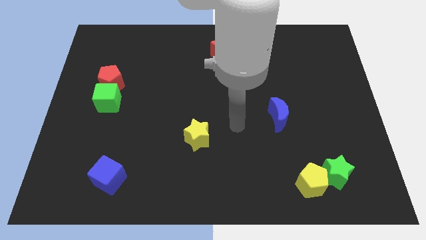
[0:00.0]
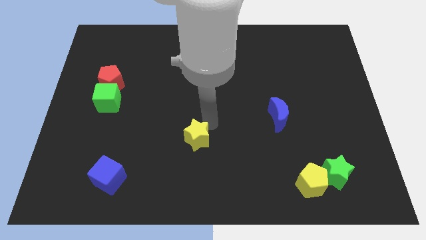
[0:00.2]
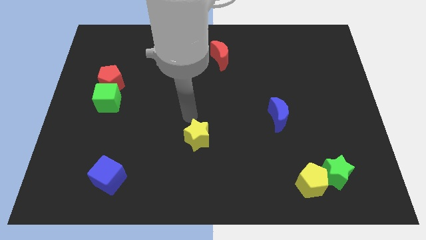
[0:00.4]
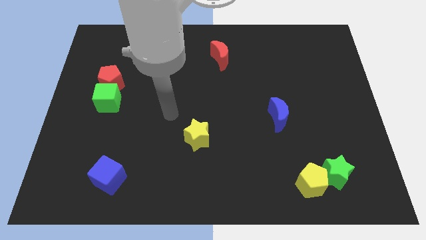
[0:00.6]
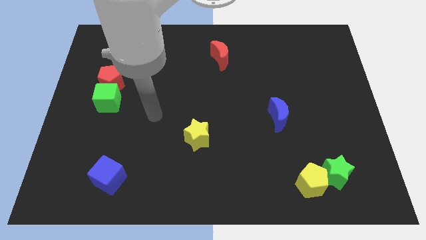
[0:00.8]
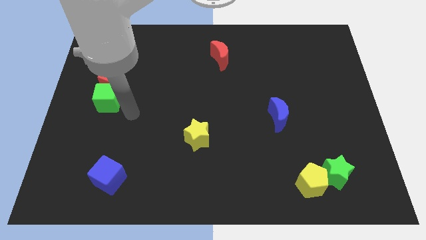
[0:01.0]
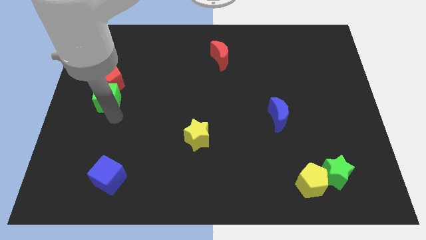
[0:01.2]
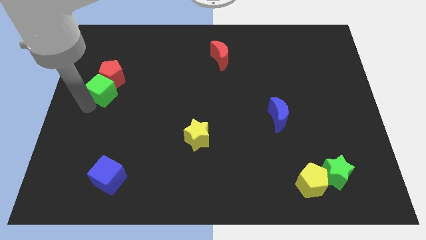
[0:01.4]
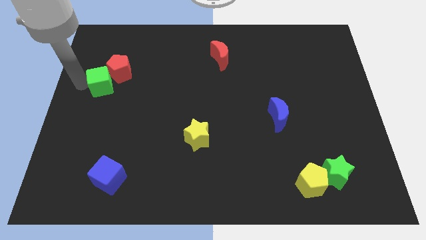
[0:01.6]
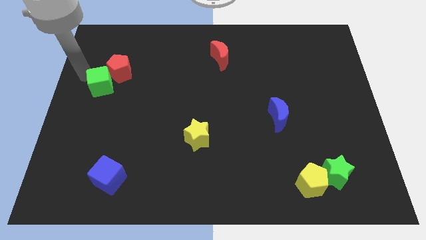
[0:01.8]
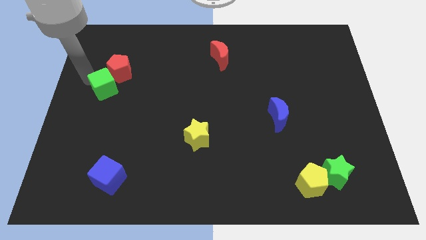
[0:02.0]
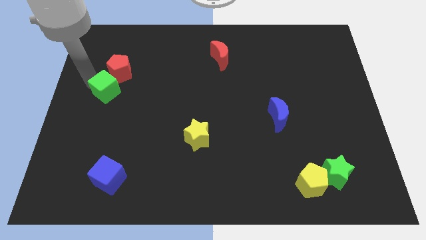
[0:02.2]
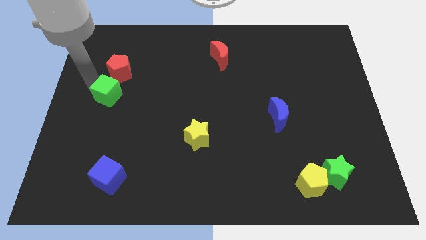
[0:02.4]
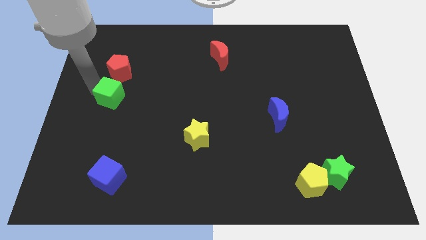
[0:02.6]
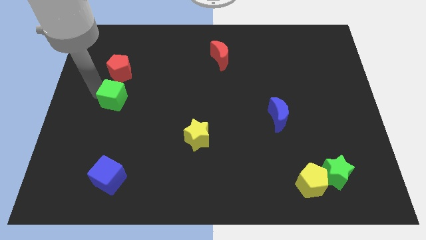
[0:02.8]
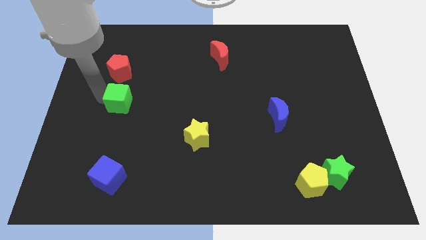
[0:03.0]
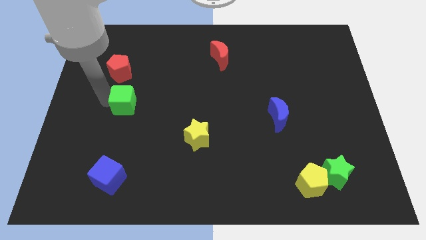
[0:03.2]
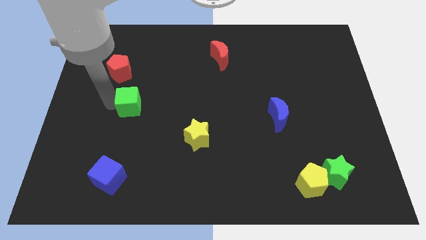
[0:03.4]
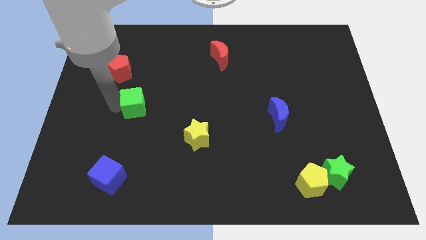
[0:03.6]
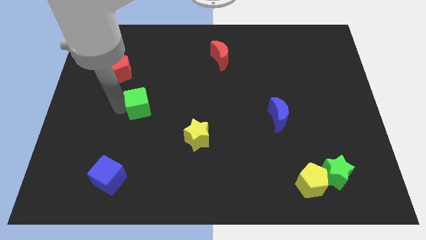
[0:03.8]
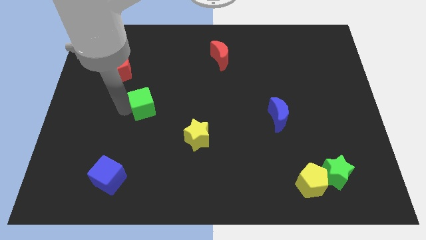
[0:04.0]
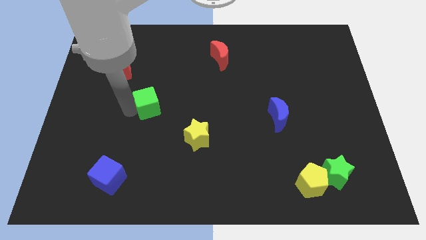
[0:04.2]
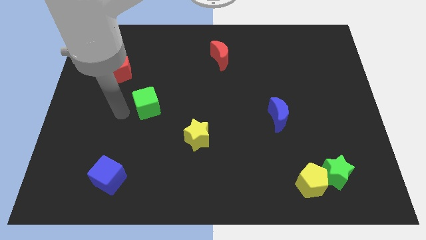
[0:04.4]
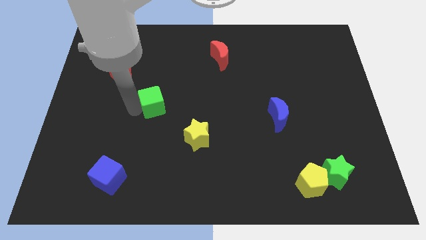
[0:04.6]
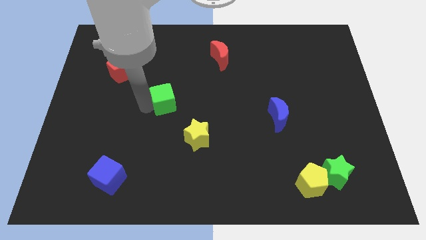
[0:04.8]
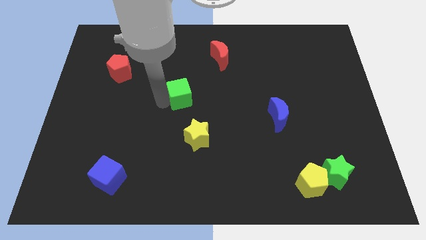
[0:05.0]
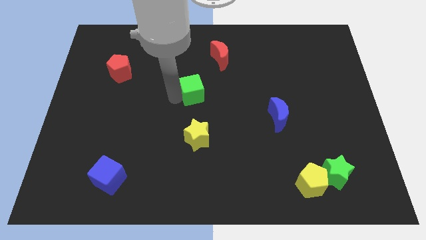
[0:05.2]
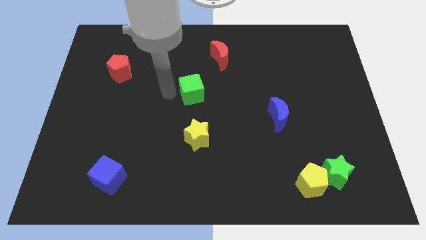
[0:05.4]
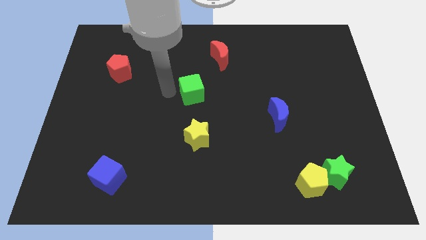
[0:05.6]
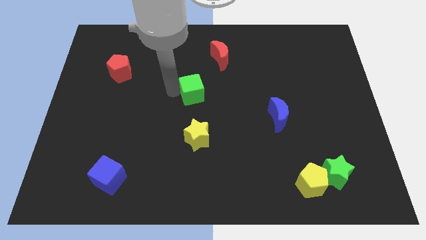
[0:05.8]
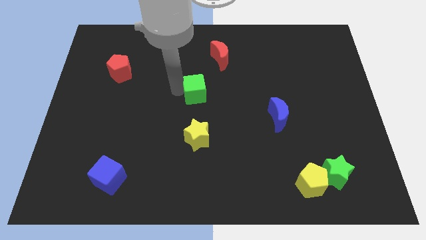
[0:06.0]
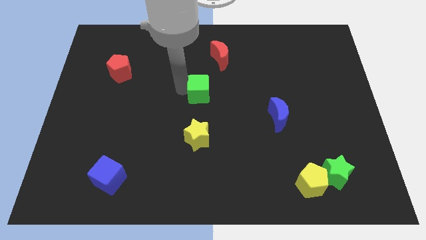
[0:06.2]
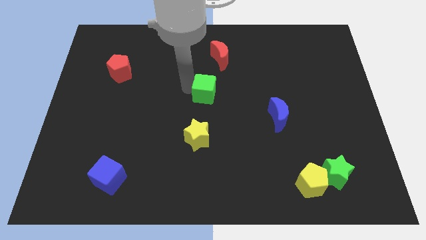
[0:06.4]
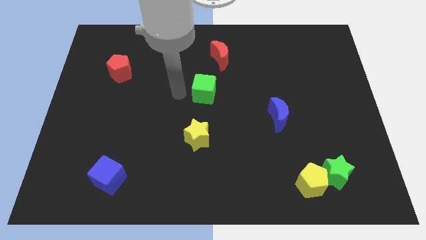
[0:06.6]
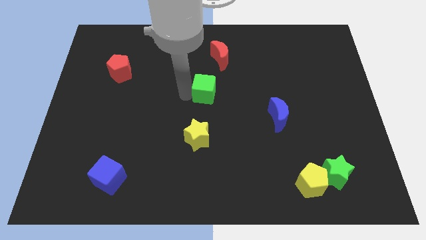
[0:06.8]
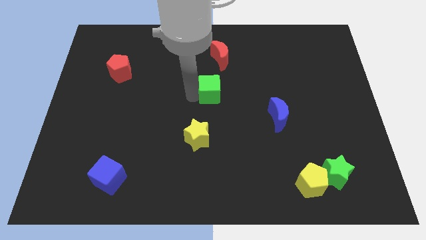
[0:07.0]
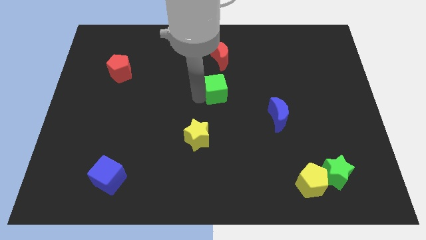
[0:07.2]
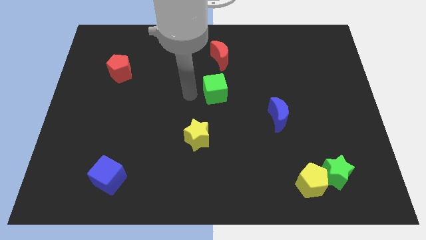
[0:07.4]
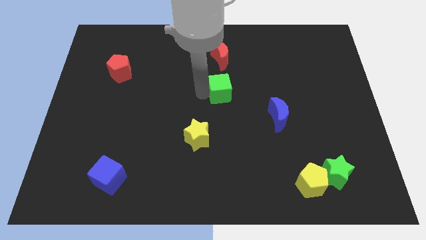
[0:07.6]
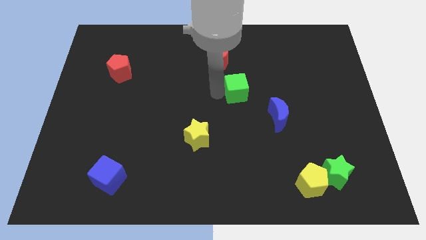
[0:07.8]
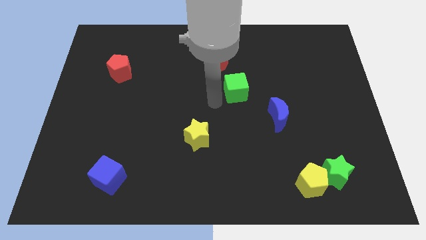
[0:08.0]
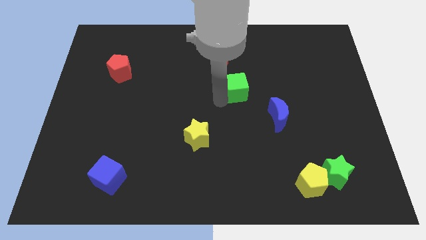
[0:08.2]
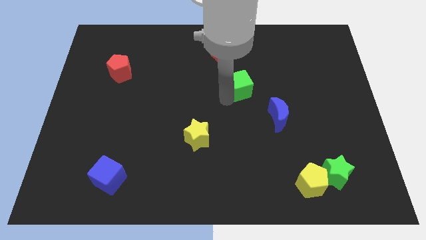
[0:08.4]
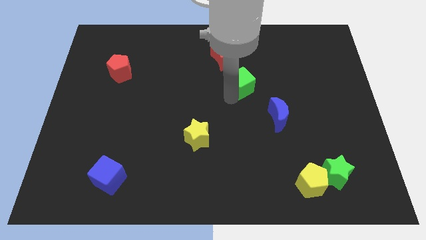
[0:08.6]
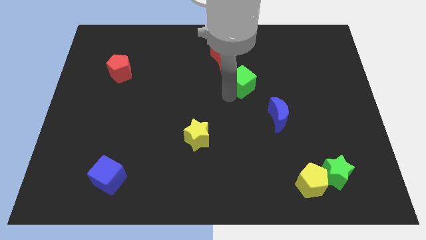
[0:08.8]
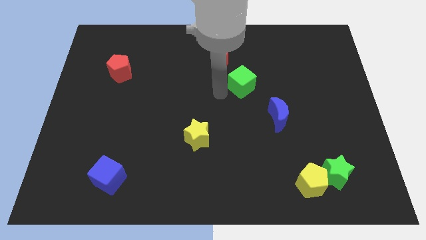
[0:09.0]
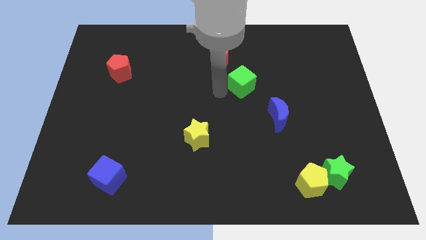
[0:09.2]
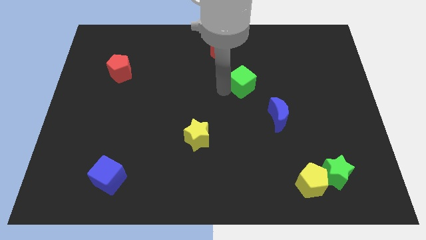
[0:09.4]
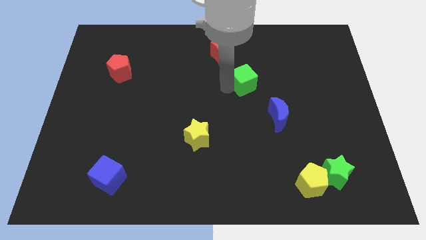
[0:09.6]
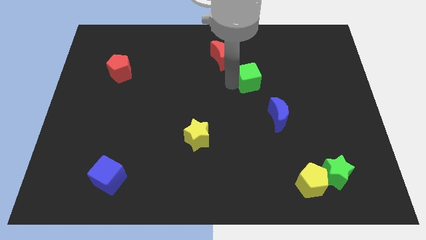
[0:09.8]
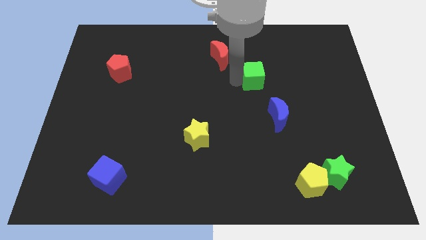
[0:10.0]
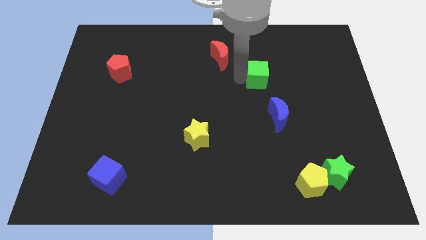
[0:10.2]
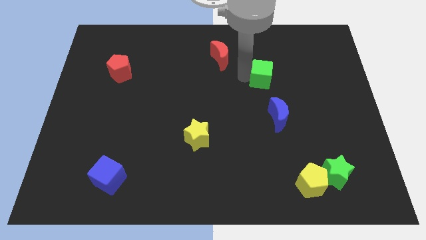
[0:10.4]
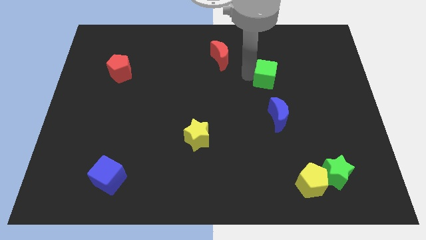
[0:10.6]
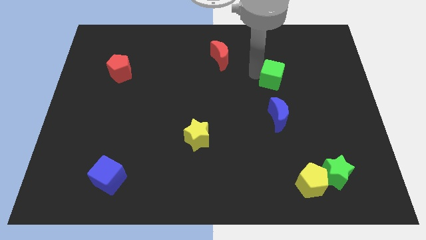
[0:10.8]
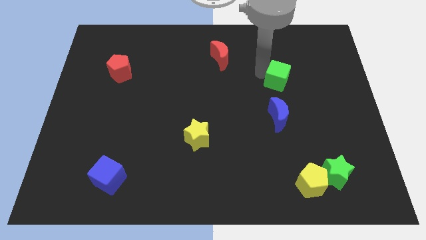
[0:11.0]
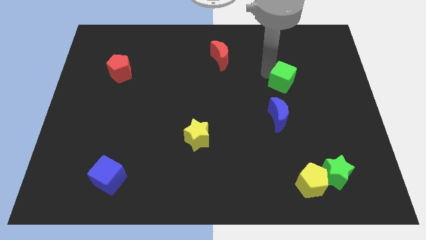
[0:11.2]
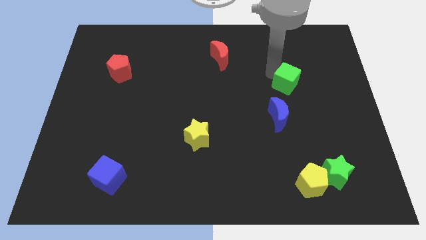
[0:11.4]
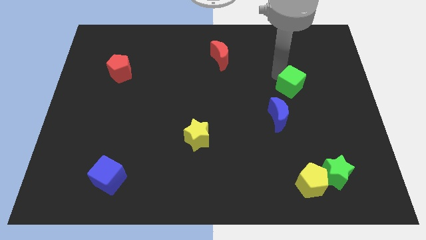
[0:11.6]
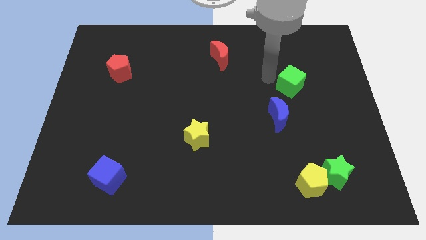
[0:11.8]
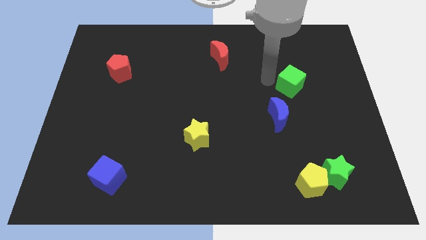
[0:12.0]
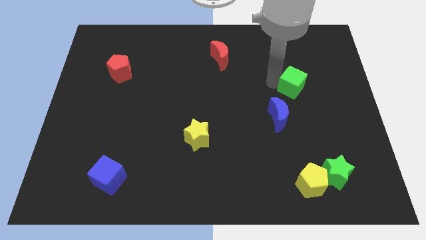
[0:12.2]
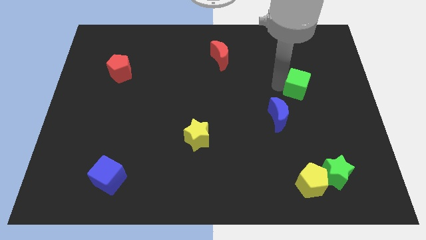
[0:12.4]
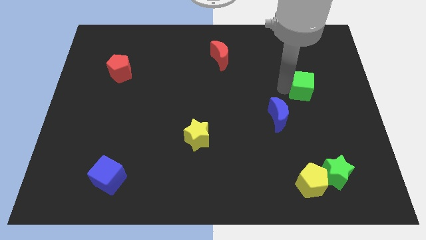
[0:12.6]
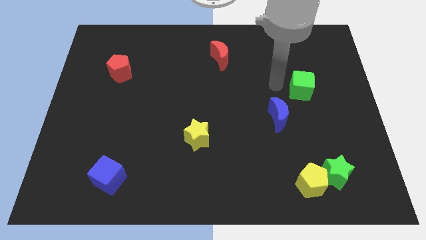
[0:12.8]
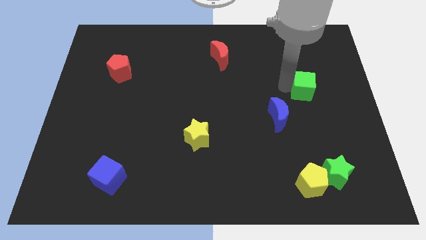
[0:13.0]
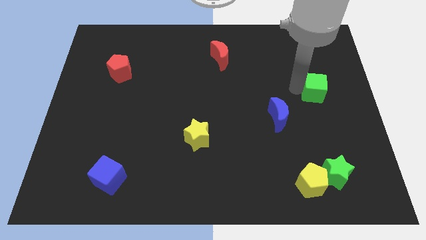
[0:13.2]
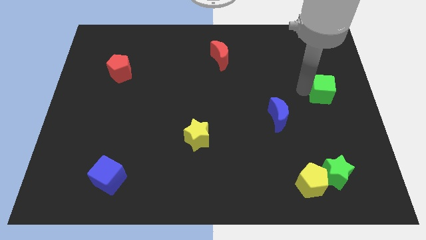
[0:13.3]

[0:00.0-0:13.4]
push the green cube to the right side
